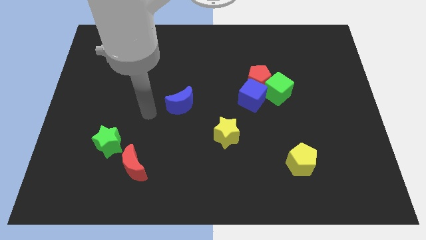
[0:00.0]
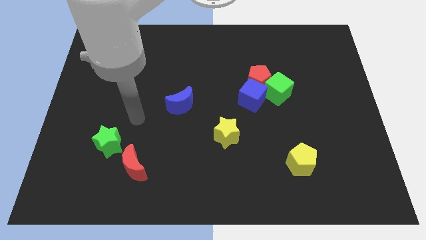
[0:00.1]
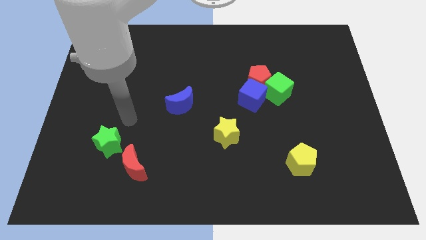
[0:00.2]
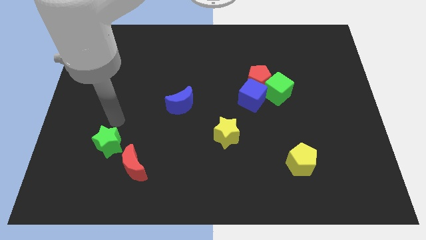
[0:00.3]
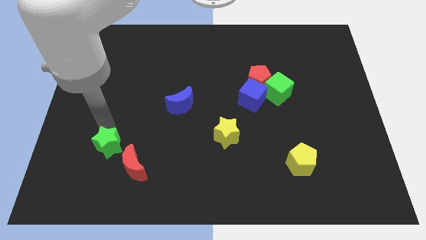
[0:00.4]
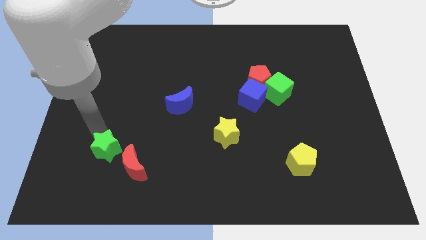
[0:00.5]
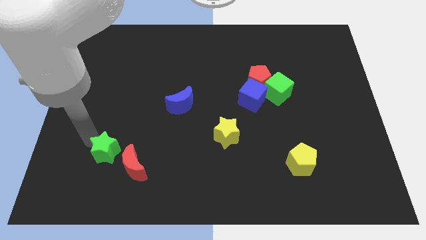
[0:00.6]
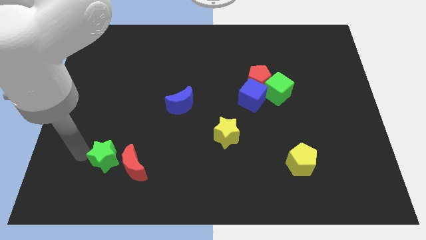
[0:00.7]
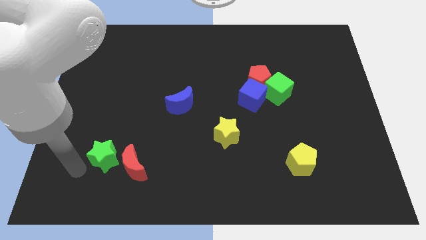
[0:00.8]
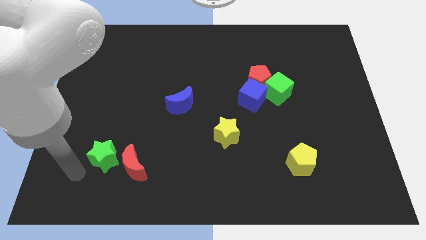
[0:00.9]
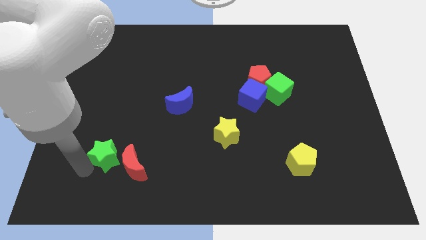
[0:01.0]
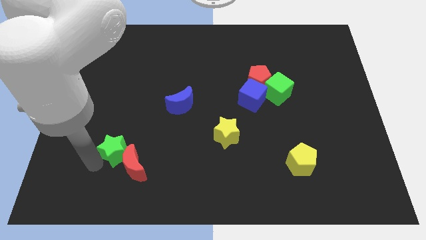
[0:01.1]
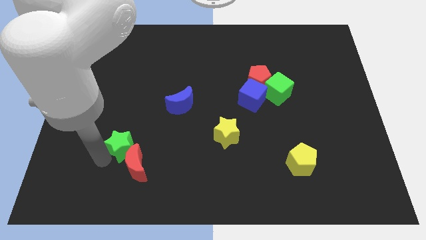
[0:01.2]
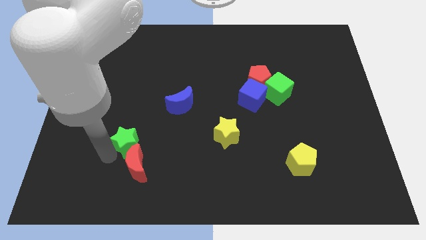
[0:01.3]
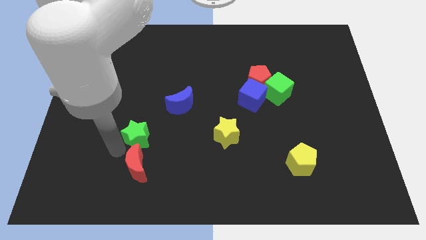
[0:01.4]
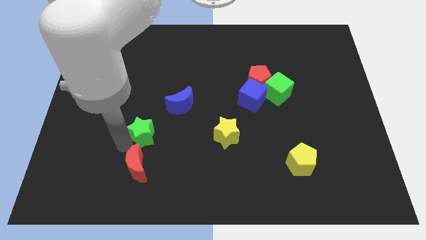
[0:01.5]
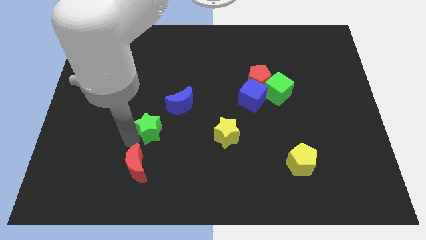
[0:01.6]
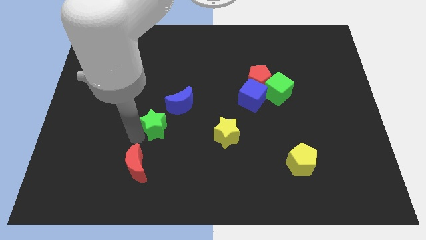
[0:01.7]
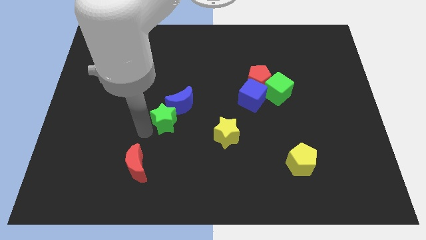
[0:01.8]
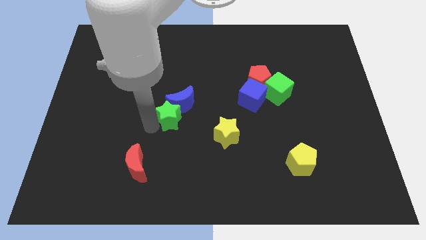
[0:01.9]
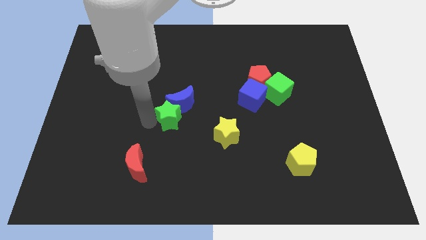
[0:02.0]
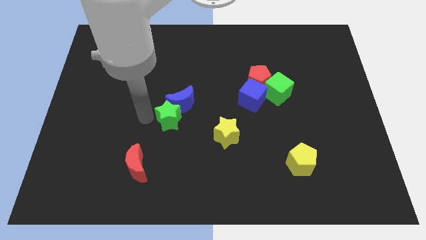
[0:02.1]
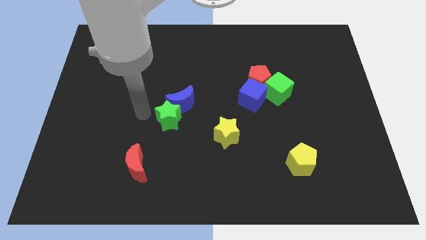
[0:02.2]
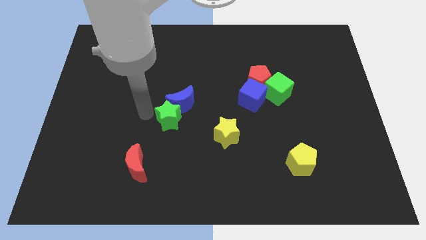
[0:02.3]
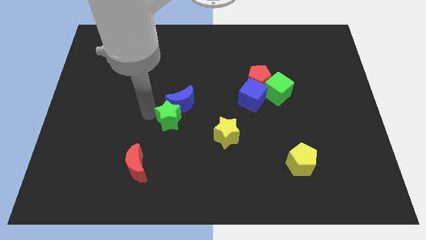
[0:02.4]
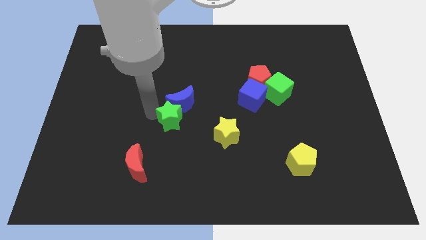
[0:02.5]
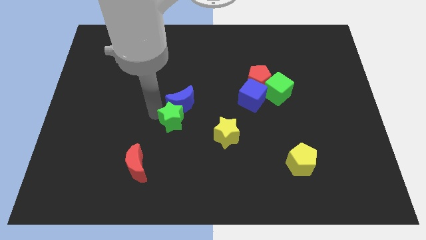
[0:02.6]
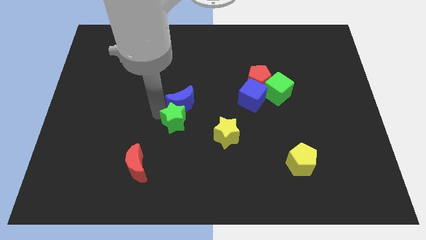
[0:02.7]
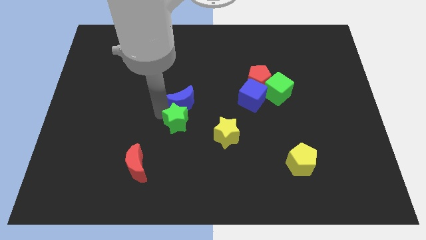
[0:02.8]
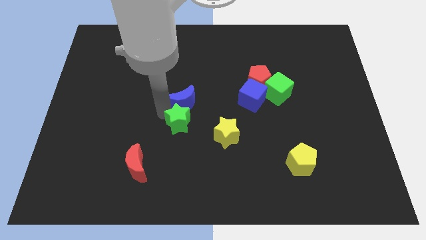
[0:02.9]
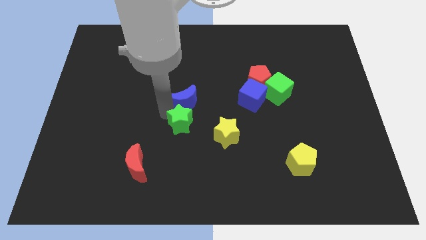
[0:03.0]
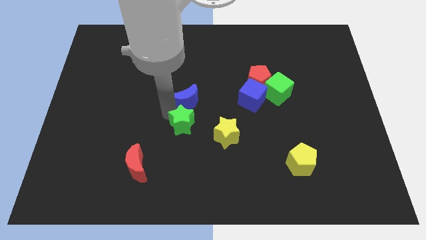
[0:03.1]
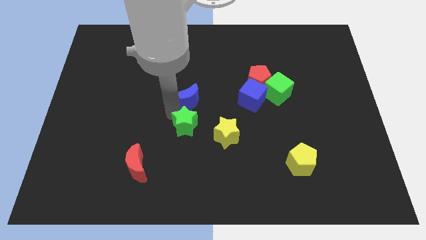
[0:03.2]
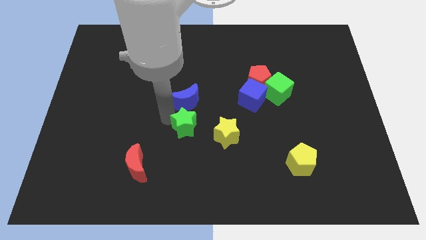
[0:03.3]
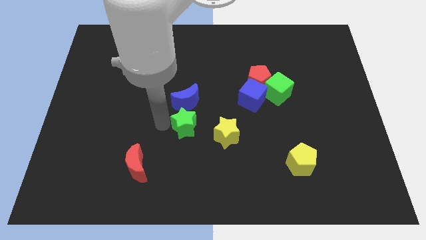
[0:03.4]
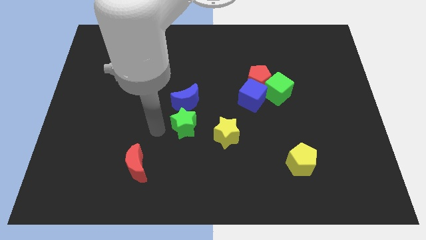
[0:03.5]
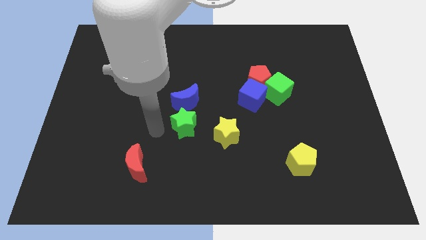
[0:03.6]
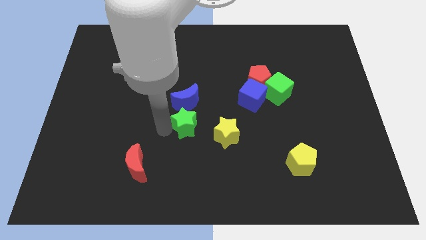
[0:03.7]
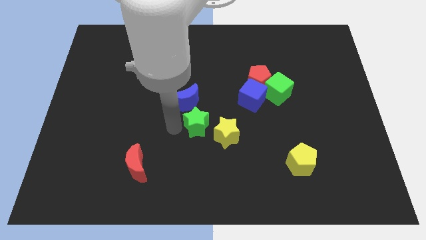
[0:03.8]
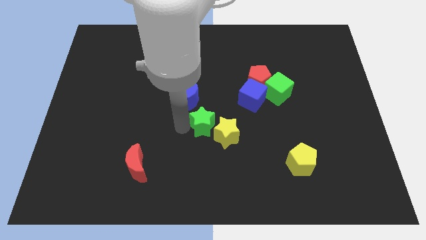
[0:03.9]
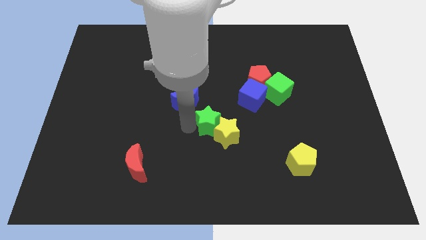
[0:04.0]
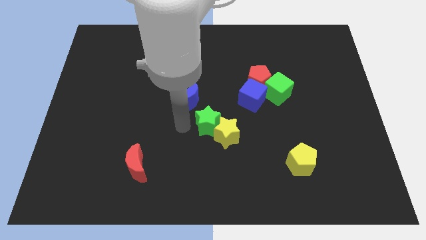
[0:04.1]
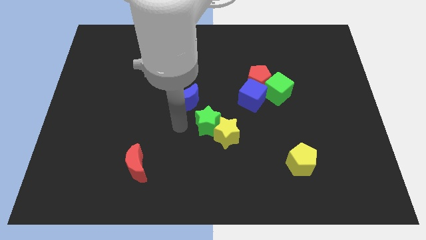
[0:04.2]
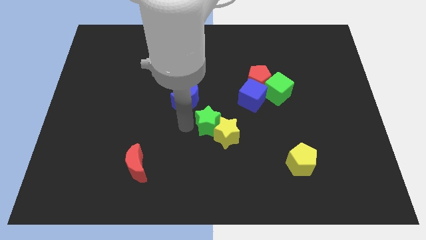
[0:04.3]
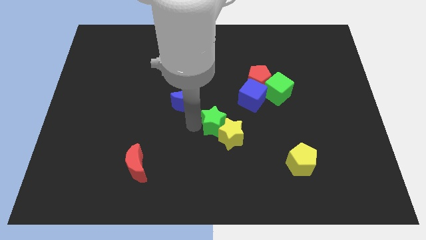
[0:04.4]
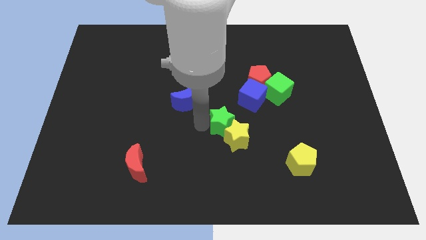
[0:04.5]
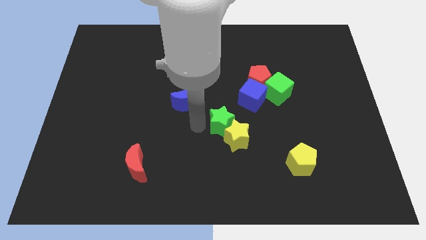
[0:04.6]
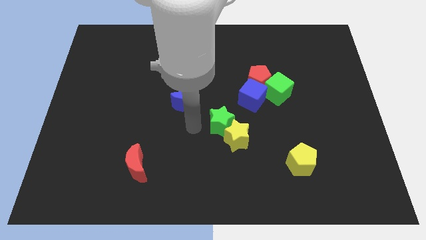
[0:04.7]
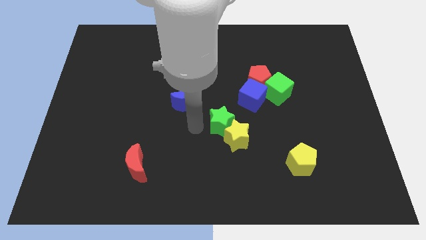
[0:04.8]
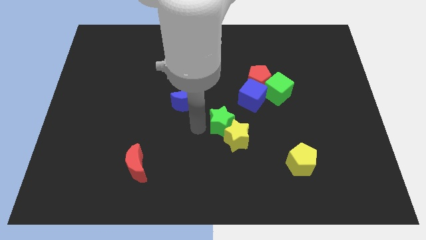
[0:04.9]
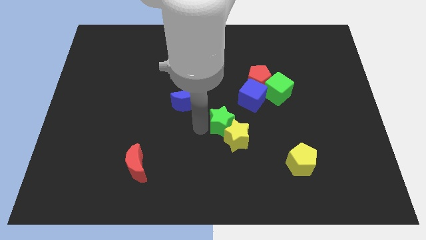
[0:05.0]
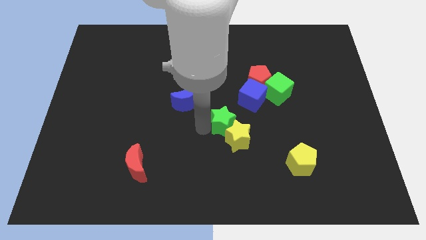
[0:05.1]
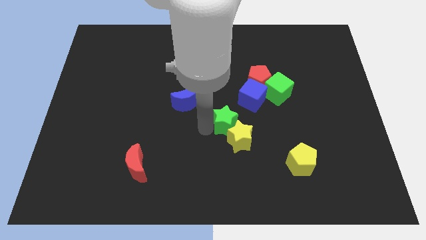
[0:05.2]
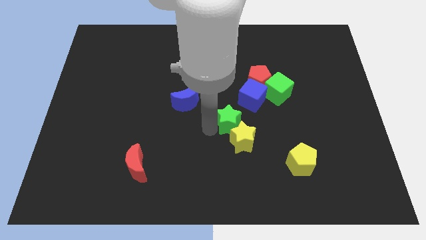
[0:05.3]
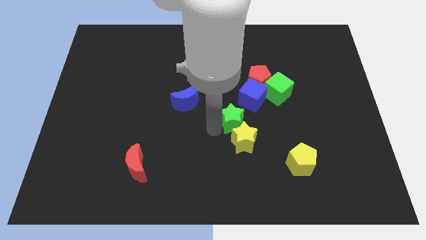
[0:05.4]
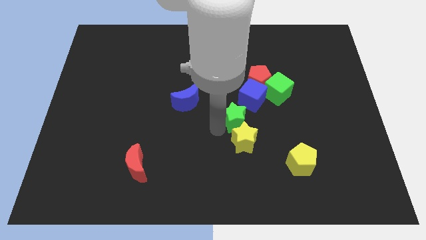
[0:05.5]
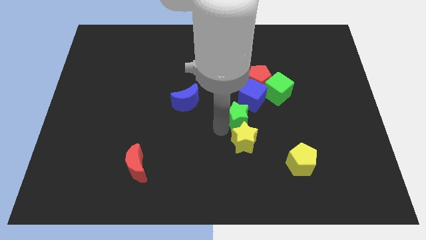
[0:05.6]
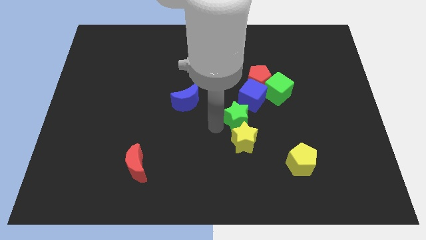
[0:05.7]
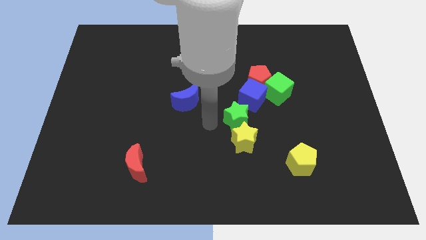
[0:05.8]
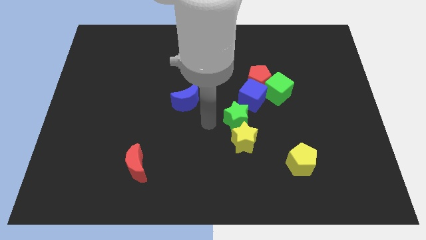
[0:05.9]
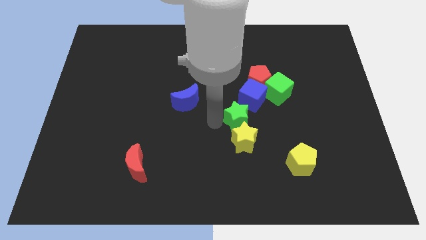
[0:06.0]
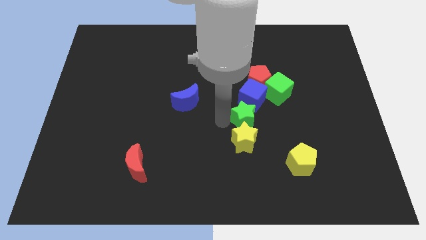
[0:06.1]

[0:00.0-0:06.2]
slide the green star to the bottom side of the red pentagon
